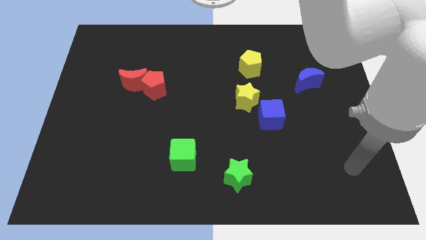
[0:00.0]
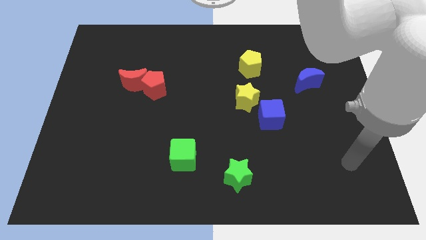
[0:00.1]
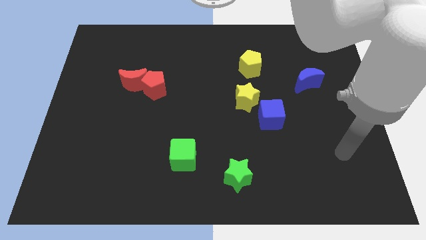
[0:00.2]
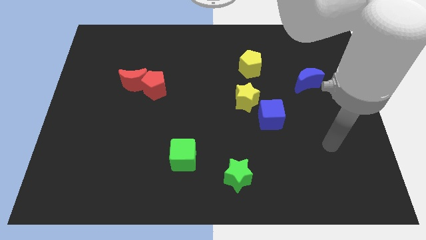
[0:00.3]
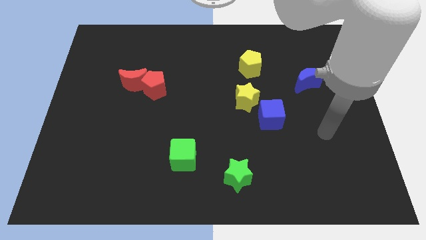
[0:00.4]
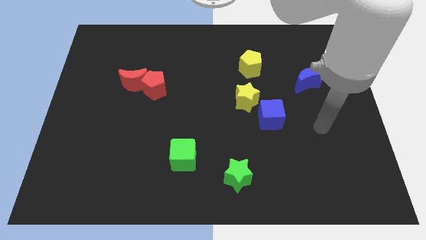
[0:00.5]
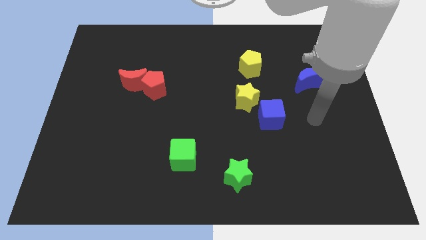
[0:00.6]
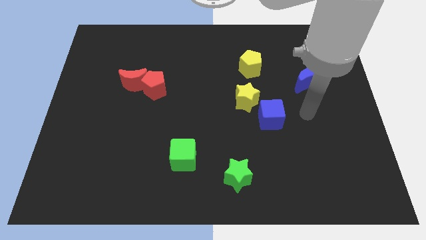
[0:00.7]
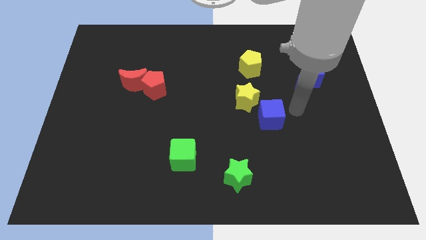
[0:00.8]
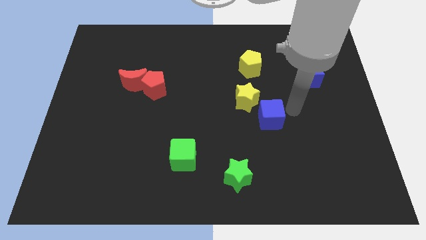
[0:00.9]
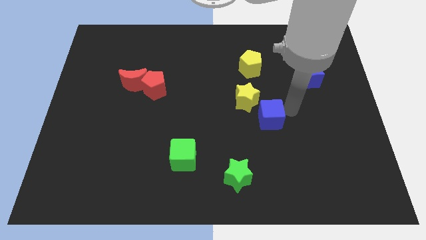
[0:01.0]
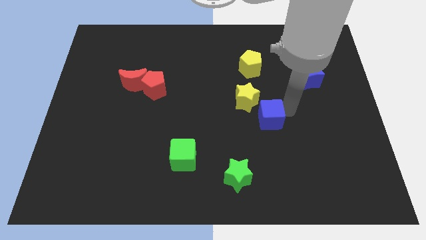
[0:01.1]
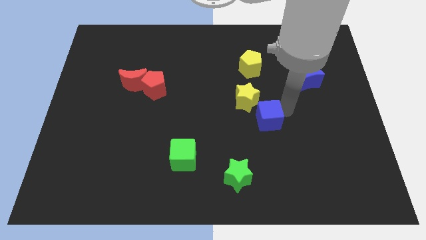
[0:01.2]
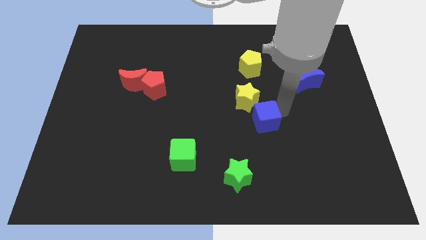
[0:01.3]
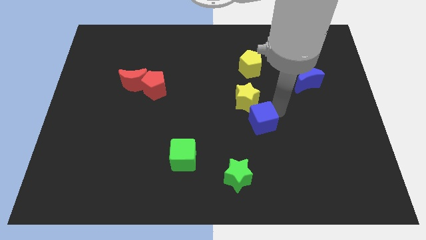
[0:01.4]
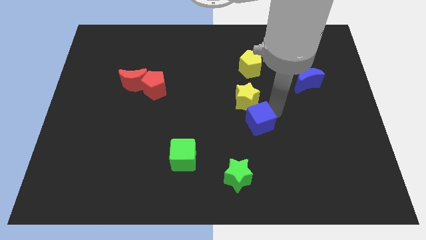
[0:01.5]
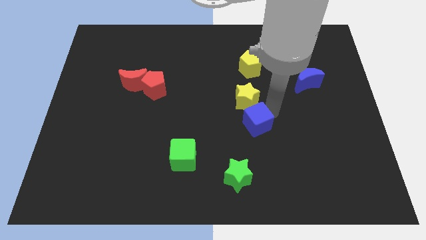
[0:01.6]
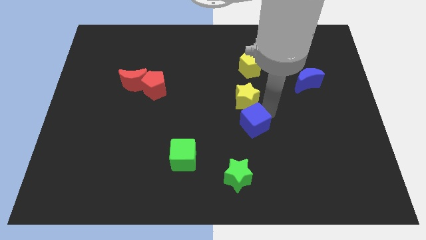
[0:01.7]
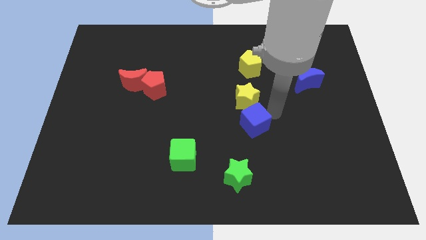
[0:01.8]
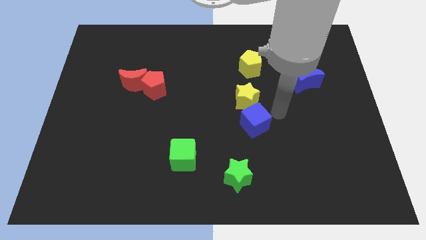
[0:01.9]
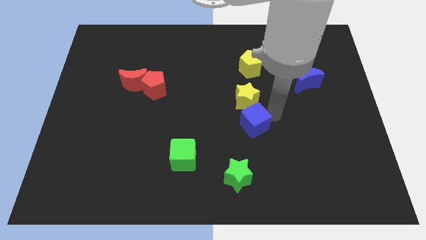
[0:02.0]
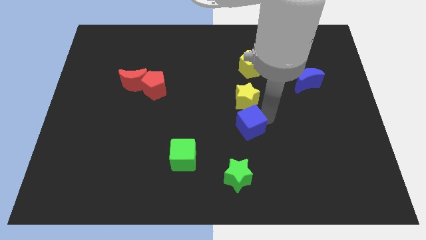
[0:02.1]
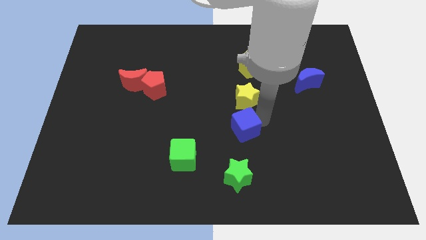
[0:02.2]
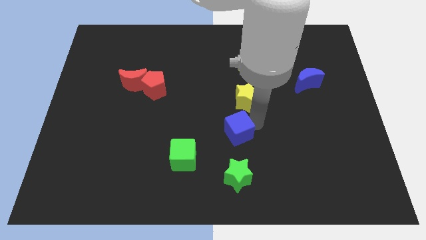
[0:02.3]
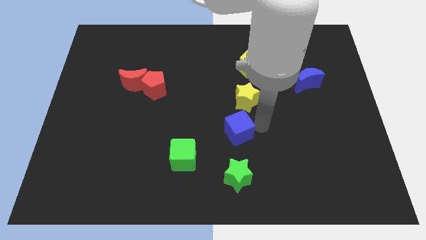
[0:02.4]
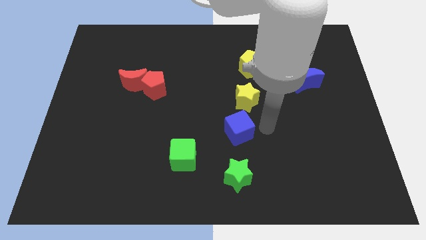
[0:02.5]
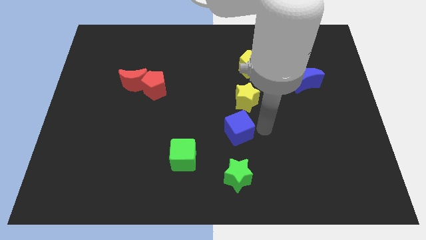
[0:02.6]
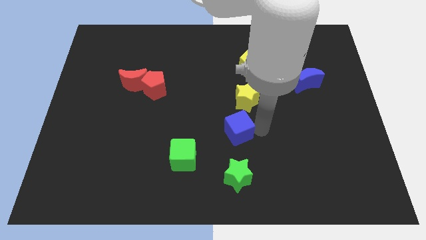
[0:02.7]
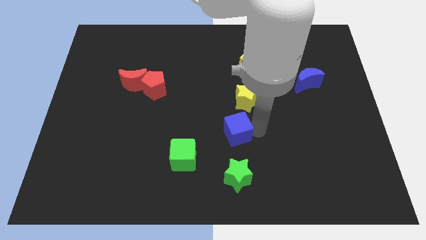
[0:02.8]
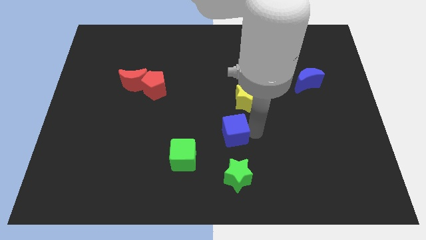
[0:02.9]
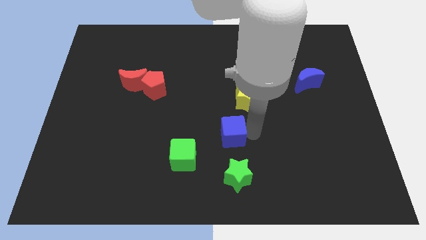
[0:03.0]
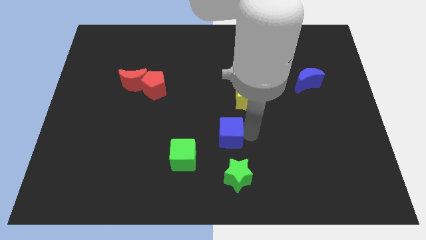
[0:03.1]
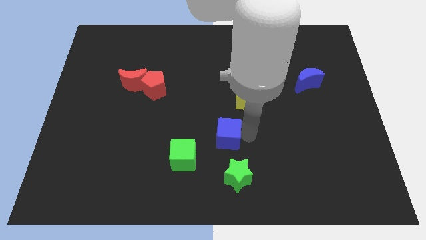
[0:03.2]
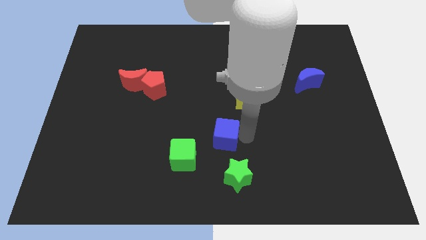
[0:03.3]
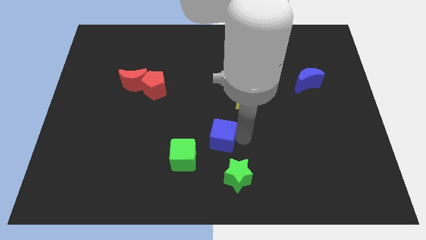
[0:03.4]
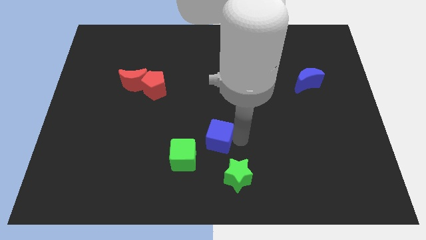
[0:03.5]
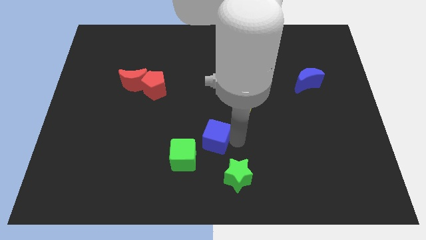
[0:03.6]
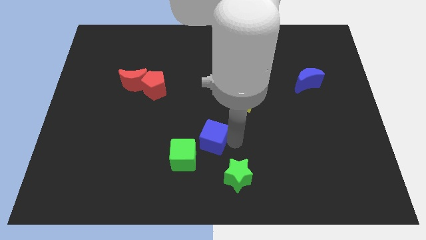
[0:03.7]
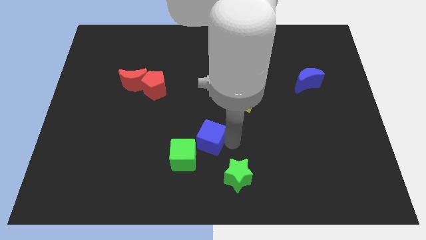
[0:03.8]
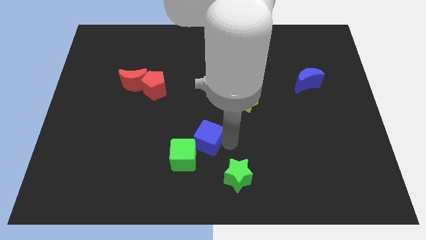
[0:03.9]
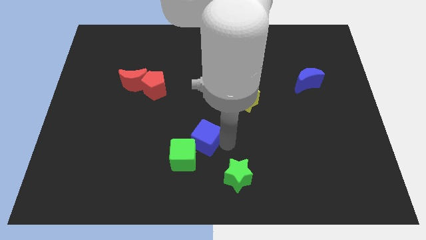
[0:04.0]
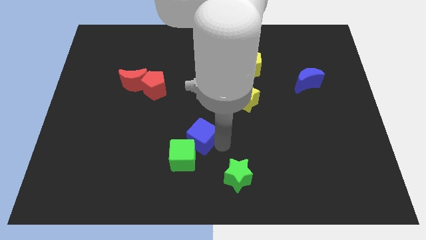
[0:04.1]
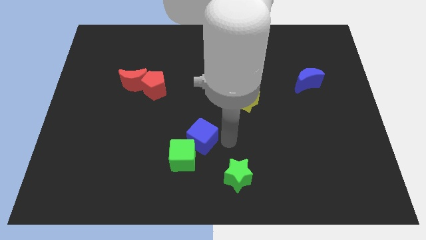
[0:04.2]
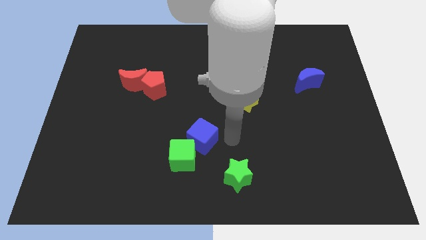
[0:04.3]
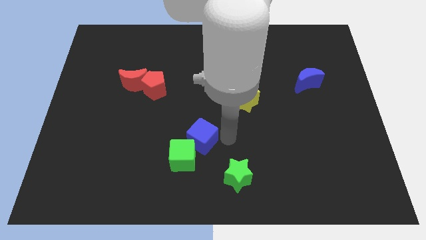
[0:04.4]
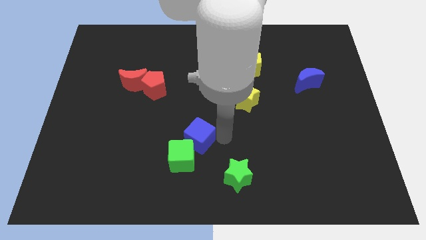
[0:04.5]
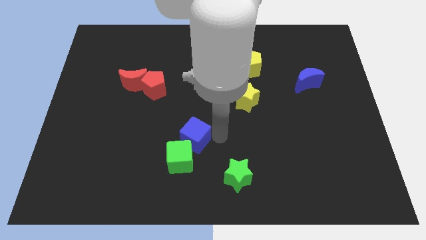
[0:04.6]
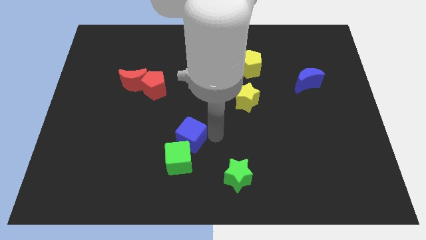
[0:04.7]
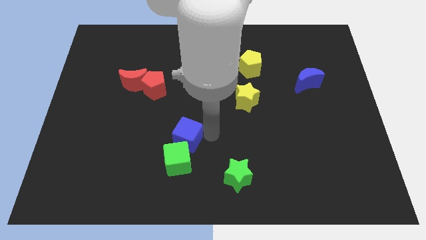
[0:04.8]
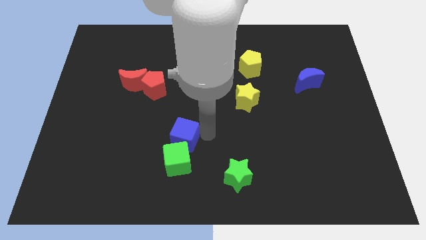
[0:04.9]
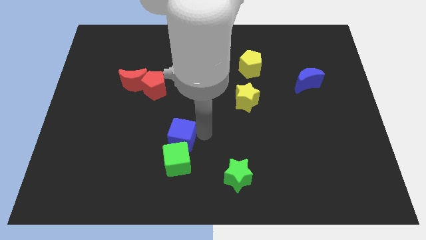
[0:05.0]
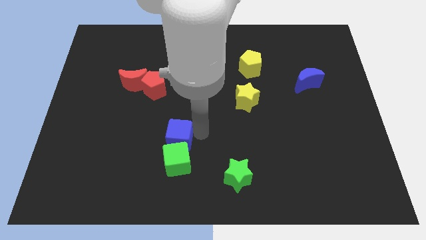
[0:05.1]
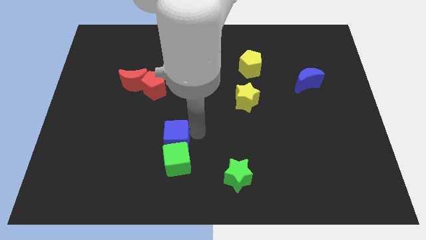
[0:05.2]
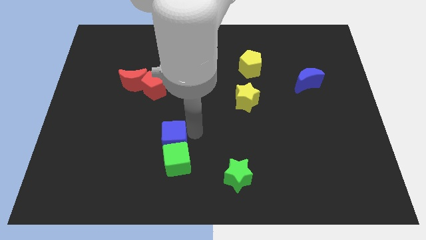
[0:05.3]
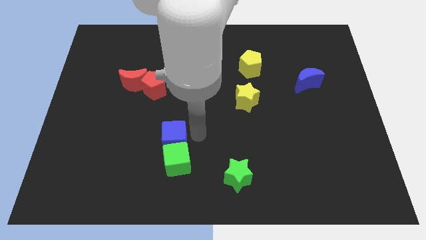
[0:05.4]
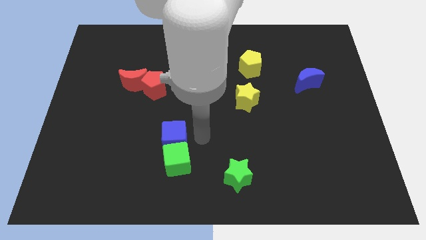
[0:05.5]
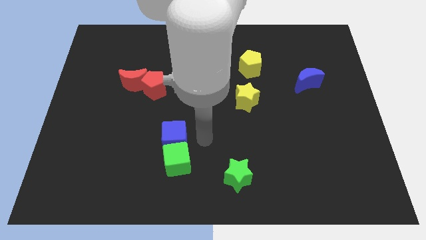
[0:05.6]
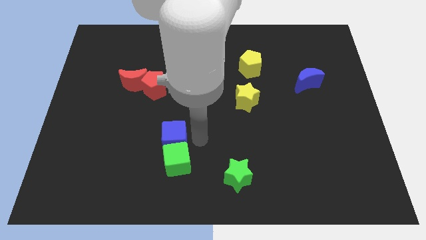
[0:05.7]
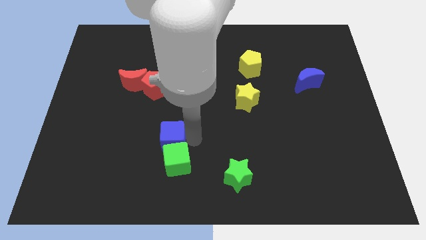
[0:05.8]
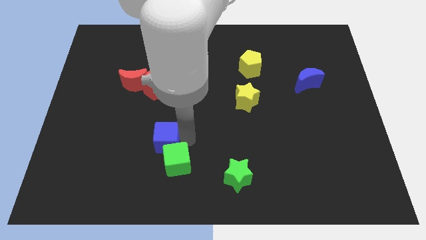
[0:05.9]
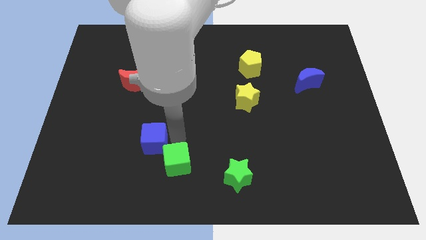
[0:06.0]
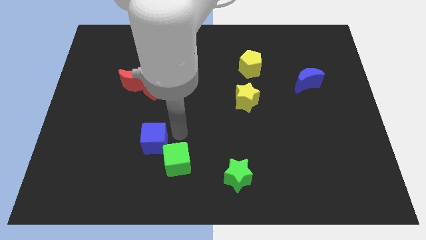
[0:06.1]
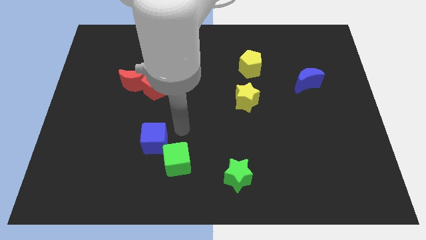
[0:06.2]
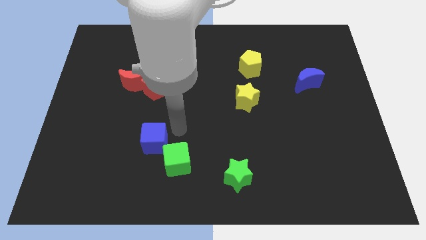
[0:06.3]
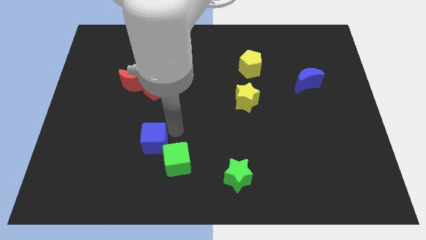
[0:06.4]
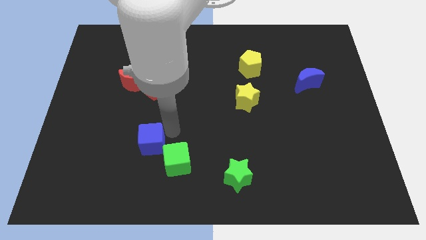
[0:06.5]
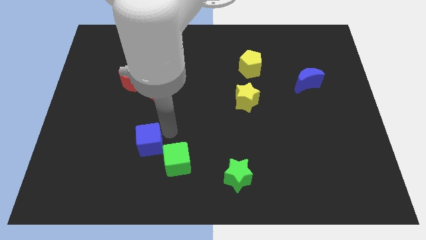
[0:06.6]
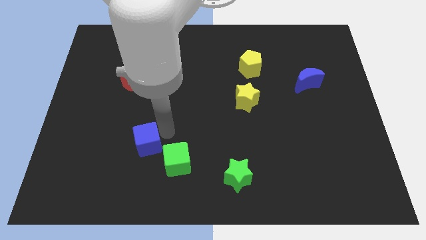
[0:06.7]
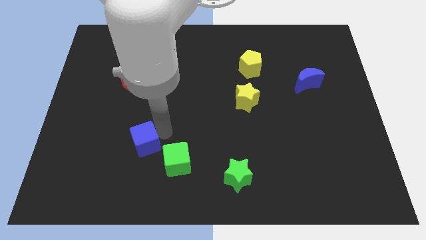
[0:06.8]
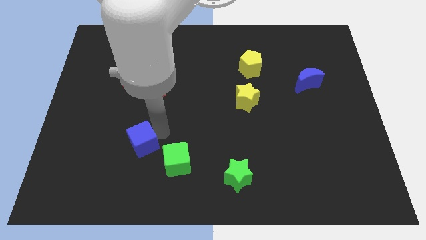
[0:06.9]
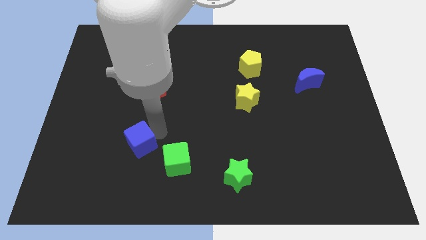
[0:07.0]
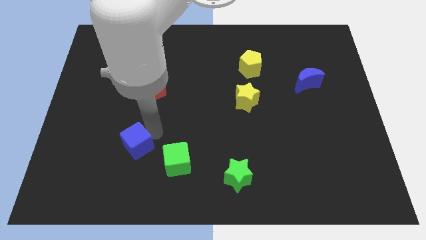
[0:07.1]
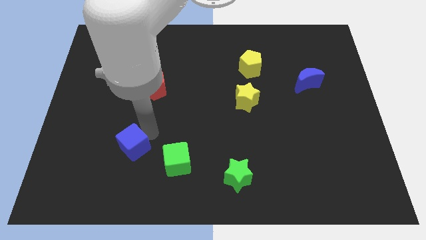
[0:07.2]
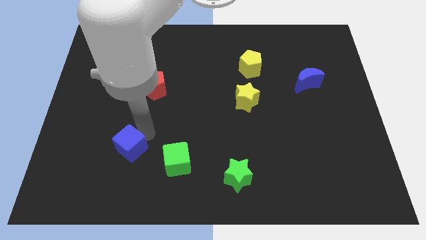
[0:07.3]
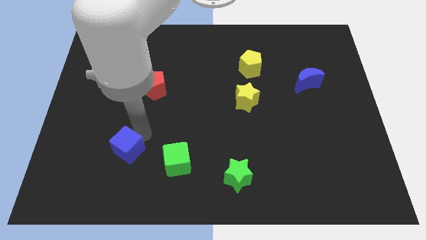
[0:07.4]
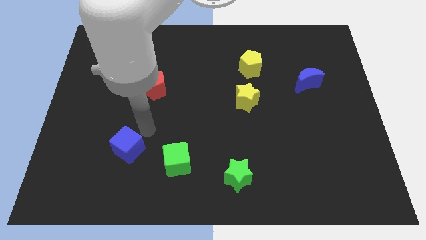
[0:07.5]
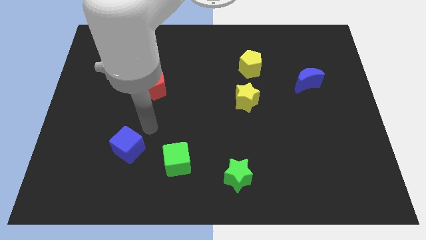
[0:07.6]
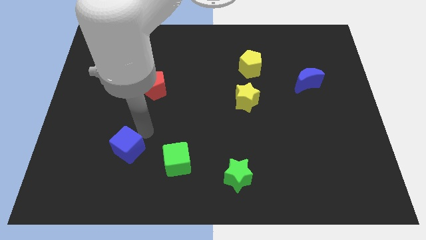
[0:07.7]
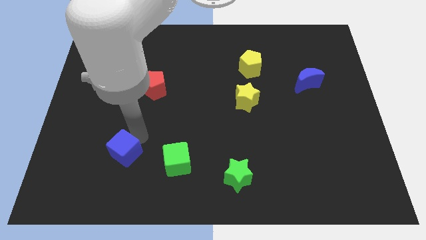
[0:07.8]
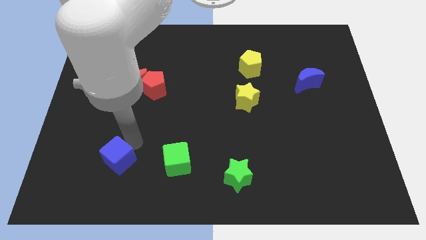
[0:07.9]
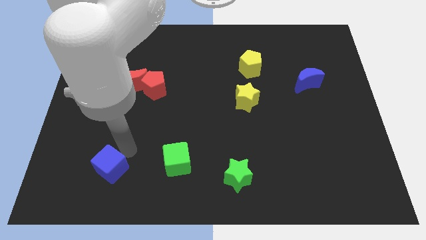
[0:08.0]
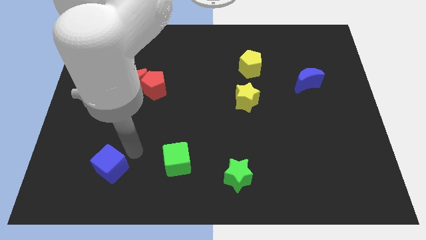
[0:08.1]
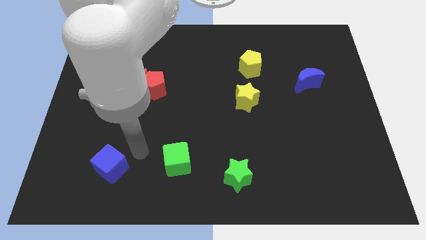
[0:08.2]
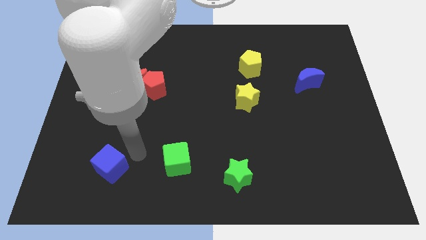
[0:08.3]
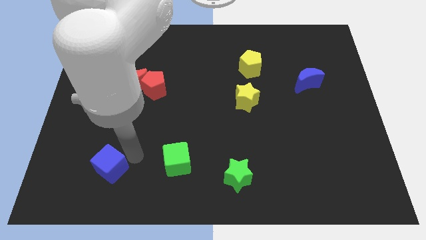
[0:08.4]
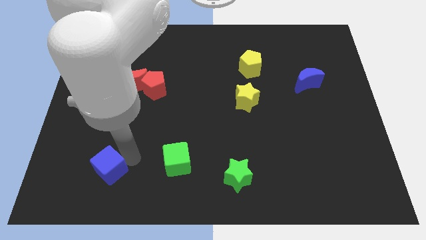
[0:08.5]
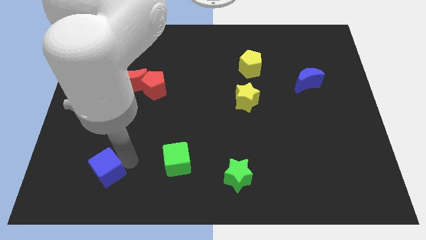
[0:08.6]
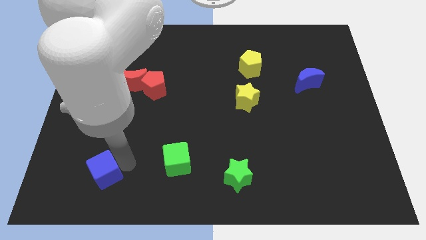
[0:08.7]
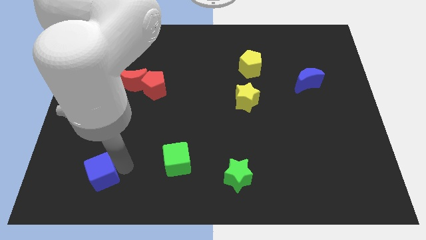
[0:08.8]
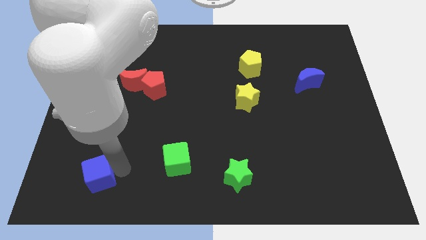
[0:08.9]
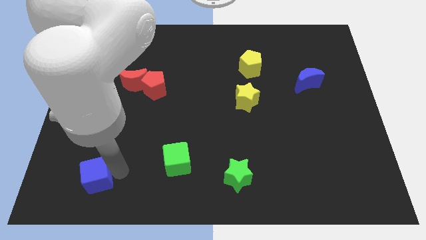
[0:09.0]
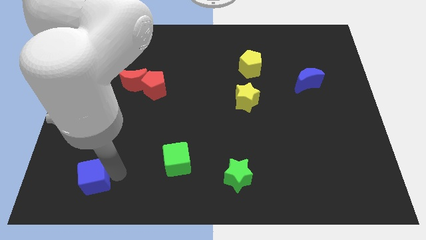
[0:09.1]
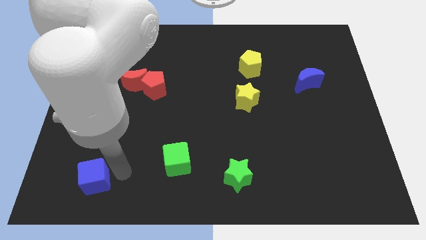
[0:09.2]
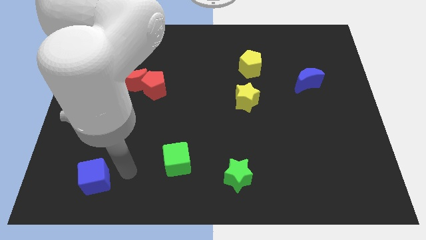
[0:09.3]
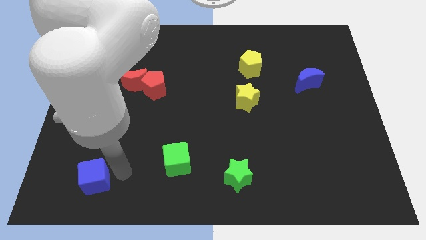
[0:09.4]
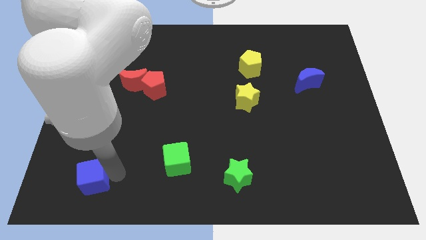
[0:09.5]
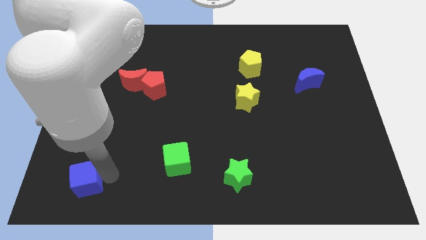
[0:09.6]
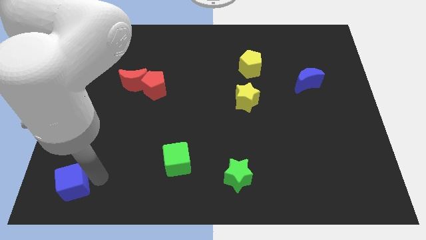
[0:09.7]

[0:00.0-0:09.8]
slide the blue cube to the bottom left of the board
